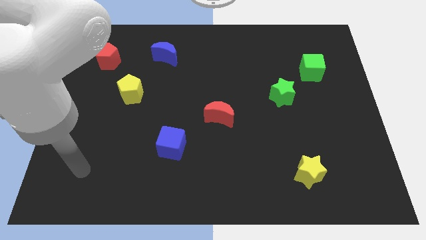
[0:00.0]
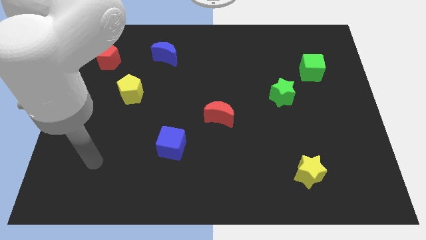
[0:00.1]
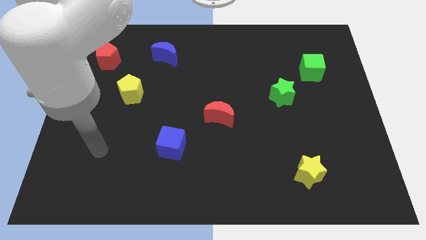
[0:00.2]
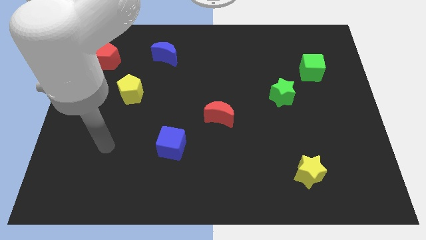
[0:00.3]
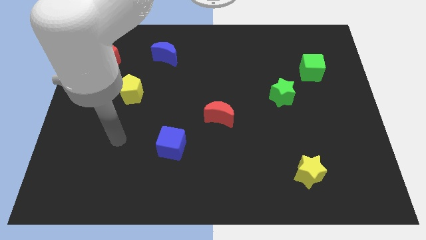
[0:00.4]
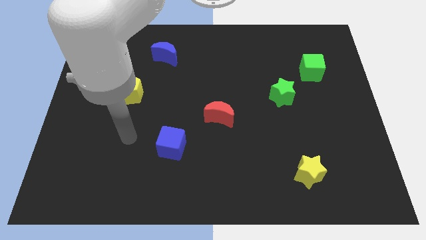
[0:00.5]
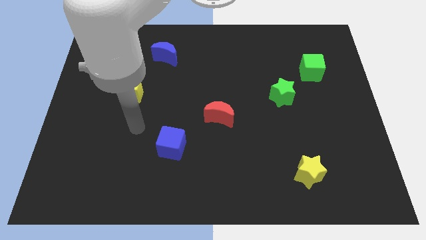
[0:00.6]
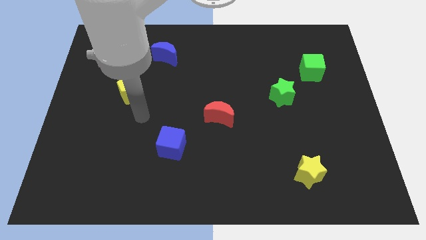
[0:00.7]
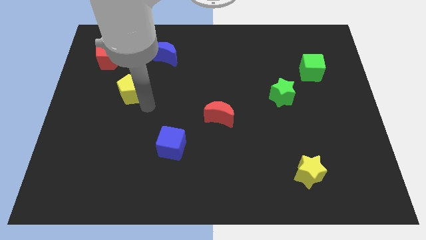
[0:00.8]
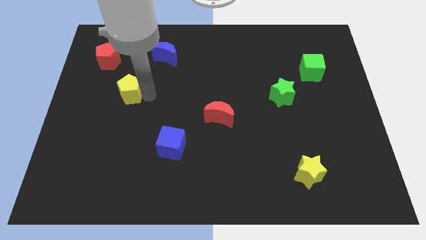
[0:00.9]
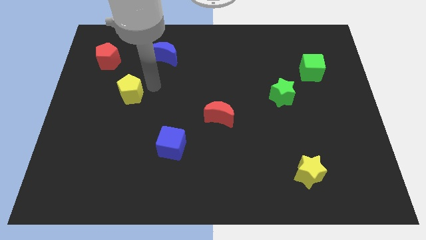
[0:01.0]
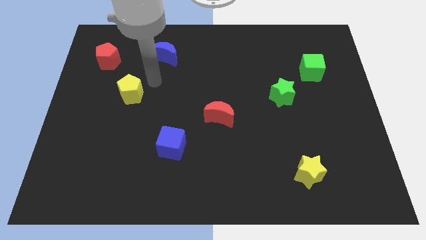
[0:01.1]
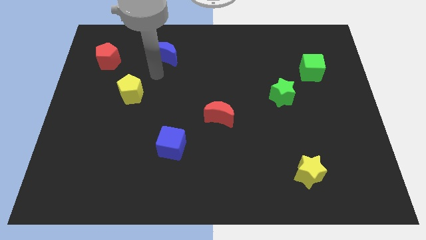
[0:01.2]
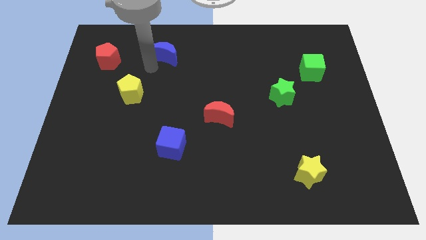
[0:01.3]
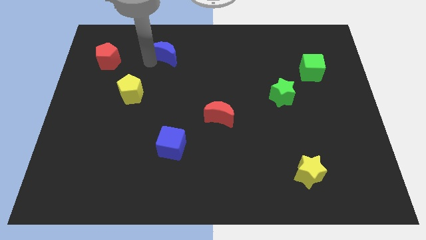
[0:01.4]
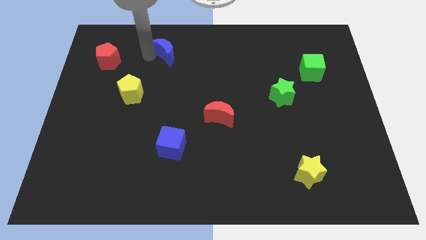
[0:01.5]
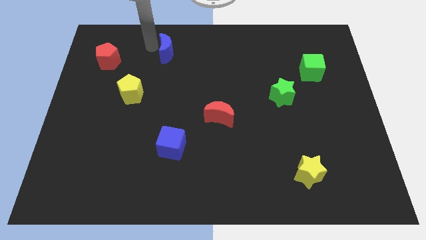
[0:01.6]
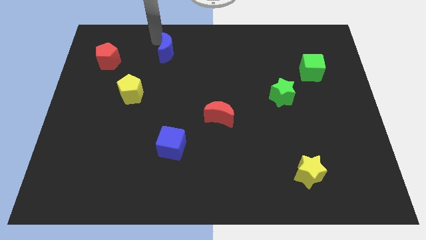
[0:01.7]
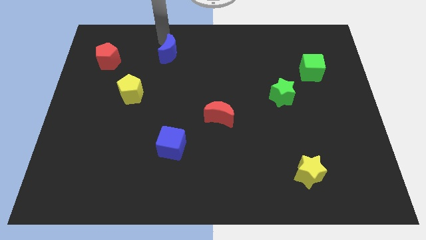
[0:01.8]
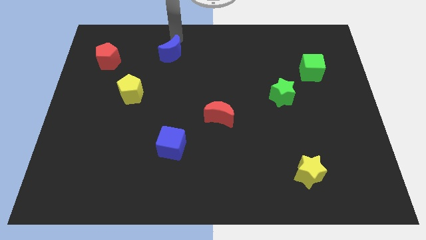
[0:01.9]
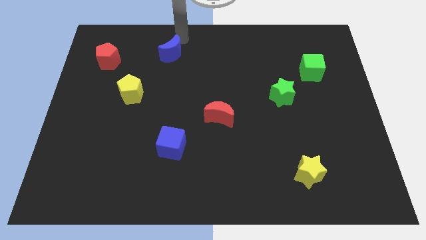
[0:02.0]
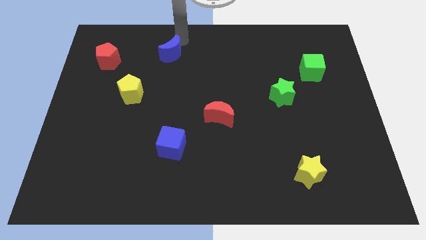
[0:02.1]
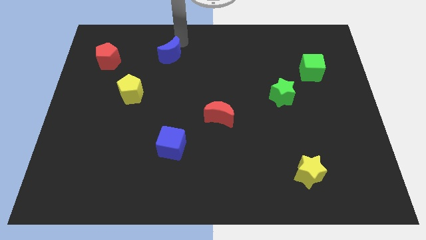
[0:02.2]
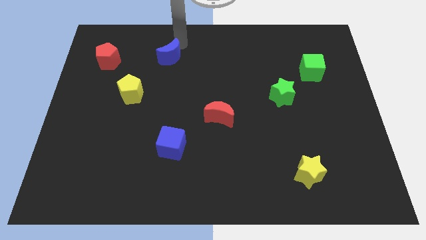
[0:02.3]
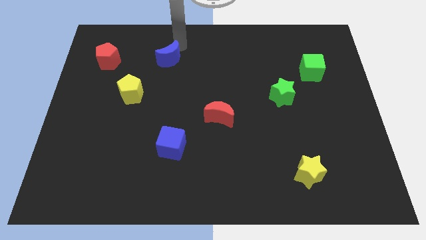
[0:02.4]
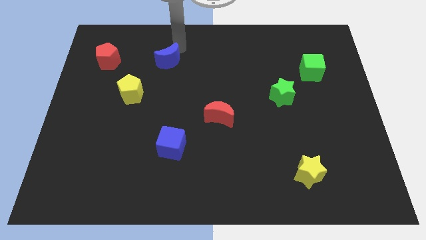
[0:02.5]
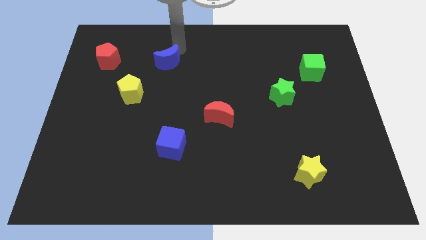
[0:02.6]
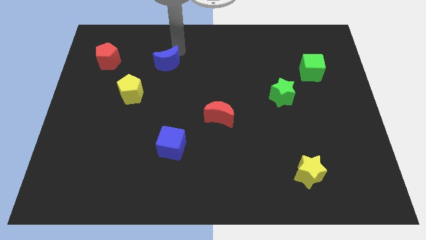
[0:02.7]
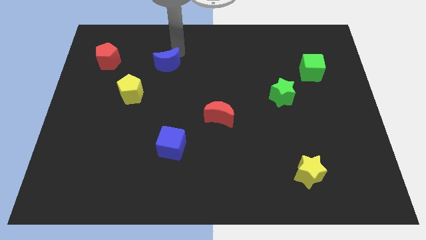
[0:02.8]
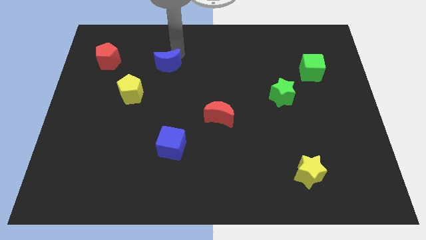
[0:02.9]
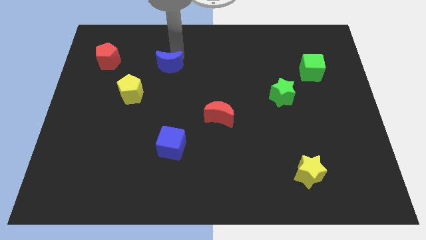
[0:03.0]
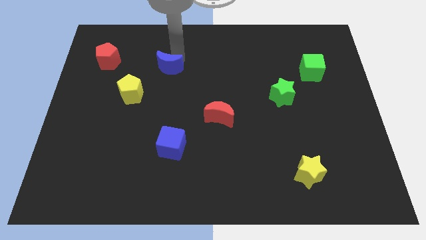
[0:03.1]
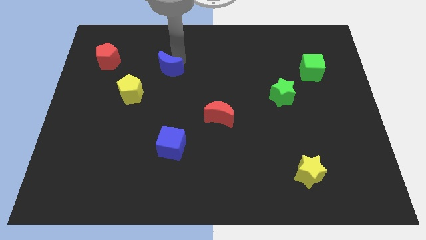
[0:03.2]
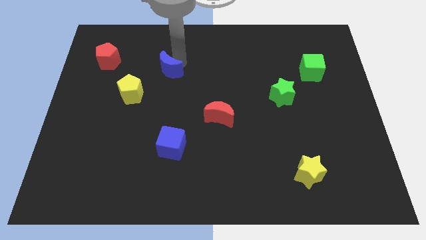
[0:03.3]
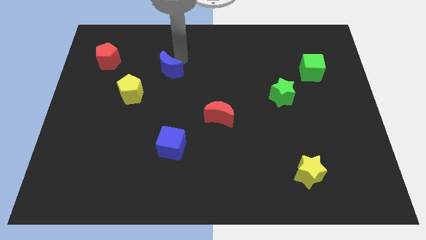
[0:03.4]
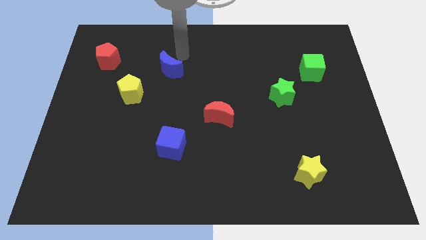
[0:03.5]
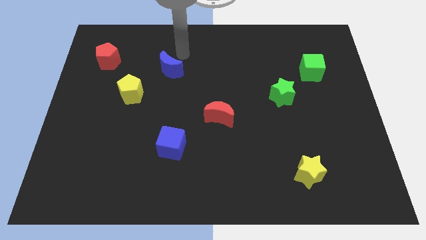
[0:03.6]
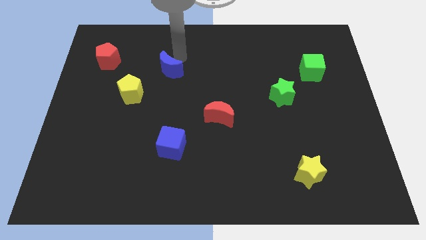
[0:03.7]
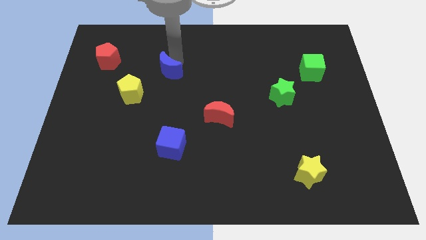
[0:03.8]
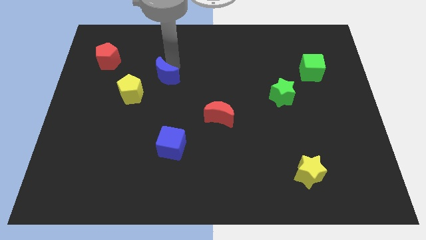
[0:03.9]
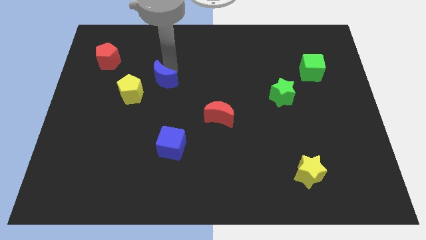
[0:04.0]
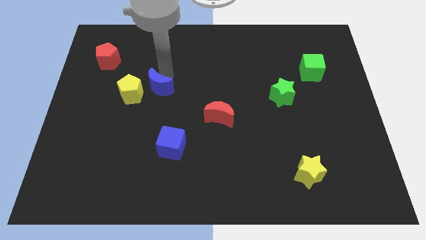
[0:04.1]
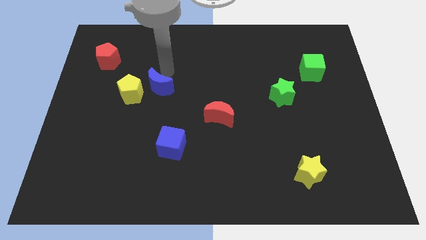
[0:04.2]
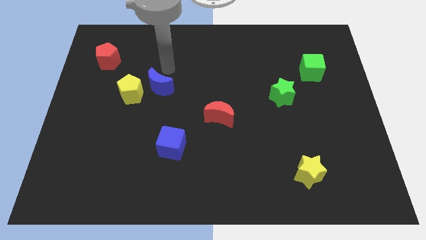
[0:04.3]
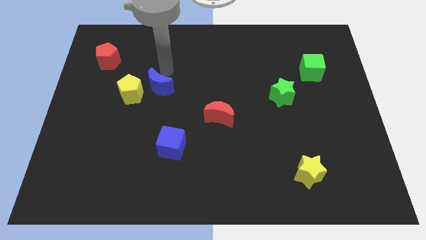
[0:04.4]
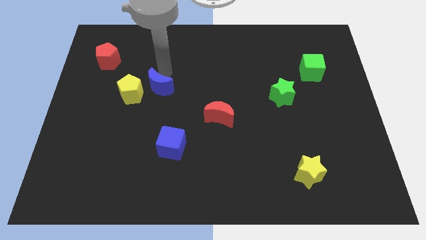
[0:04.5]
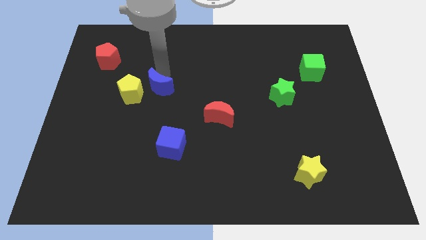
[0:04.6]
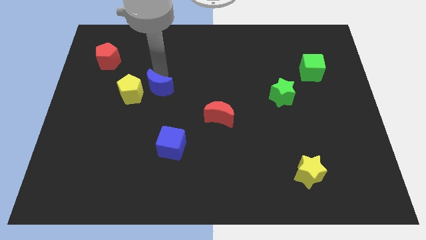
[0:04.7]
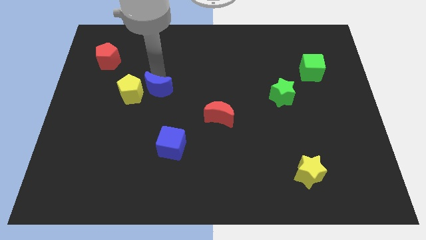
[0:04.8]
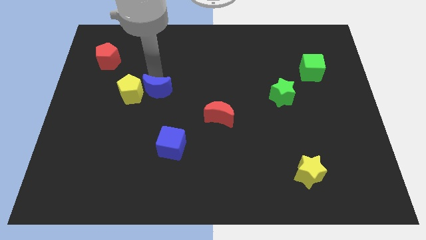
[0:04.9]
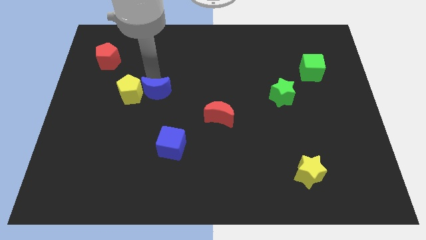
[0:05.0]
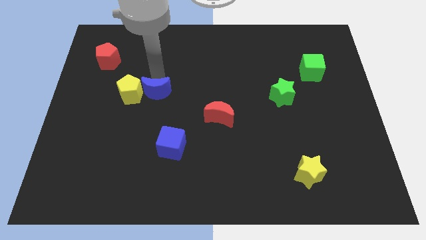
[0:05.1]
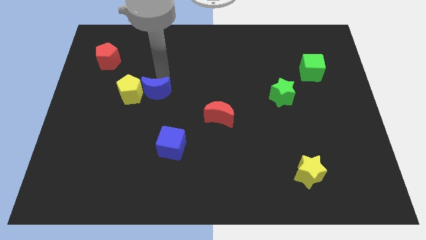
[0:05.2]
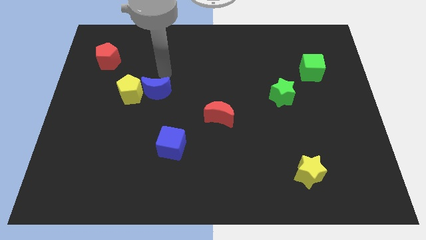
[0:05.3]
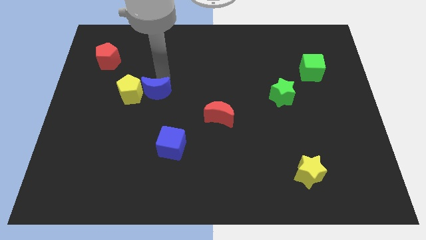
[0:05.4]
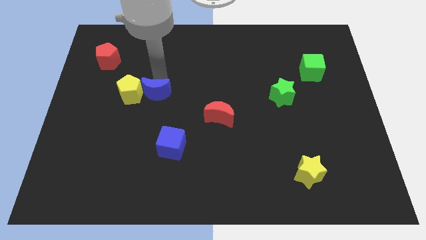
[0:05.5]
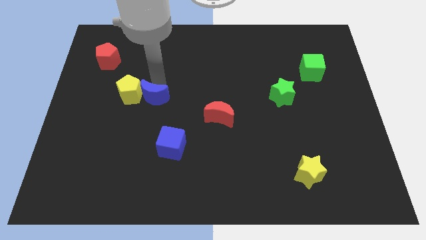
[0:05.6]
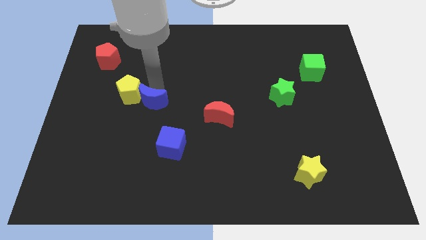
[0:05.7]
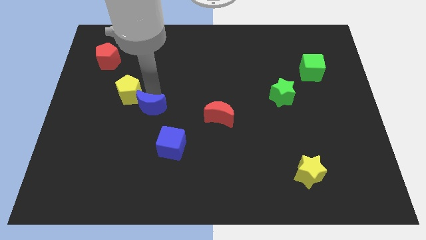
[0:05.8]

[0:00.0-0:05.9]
move the blue moon to the top left of the blue cube

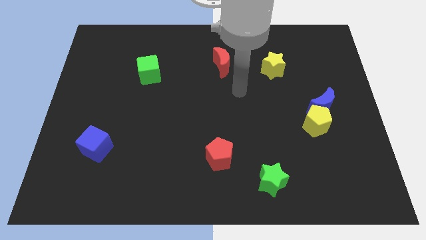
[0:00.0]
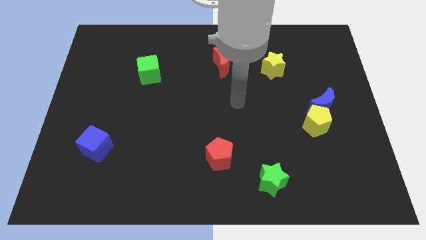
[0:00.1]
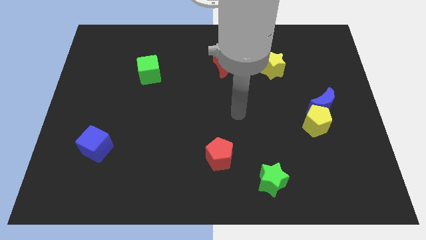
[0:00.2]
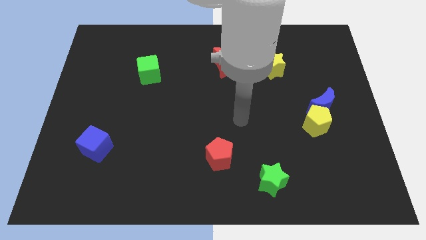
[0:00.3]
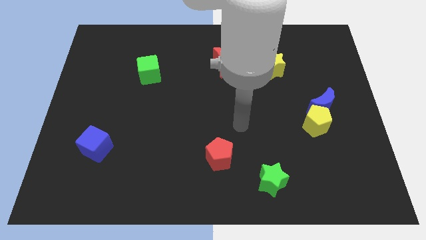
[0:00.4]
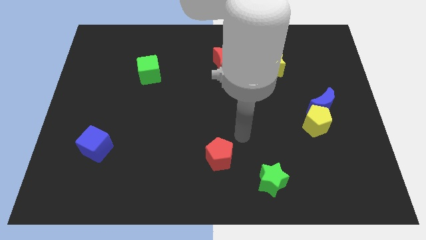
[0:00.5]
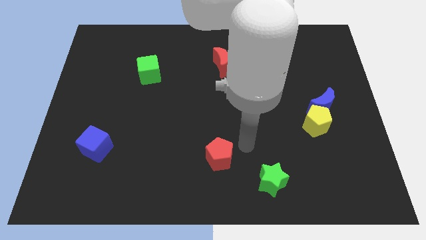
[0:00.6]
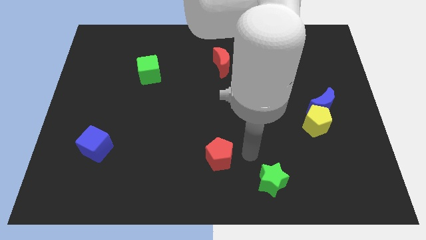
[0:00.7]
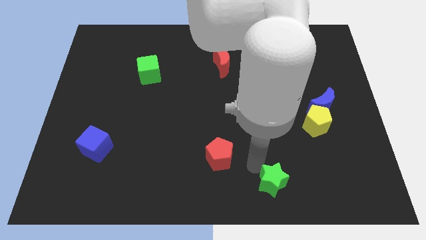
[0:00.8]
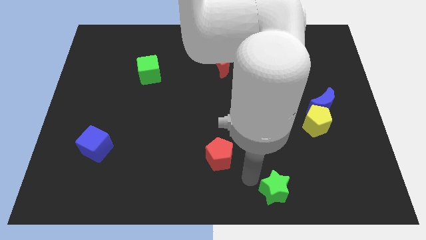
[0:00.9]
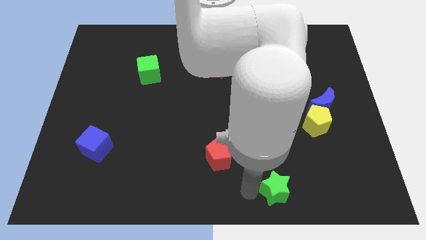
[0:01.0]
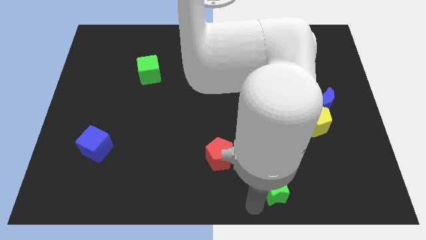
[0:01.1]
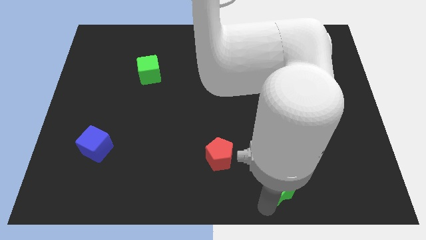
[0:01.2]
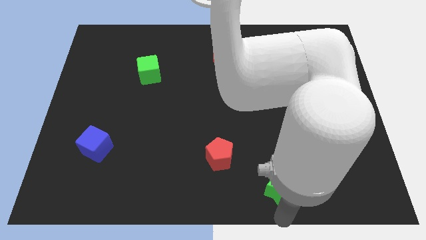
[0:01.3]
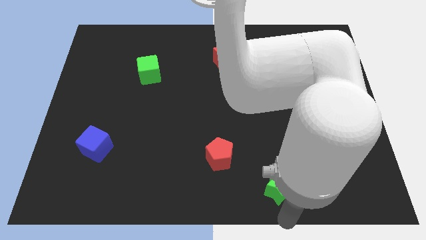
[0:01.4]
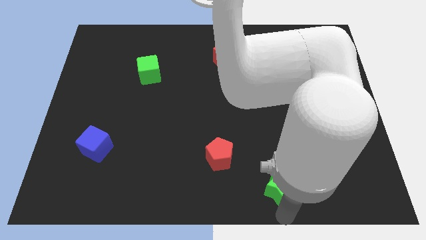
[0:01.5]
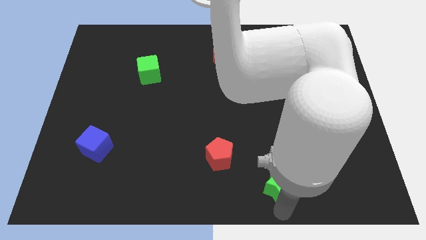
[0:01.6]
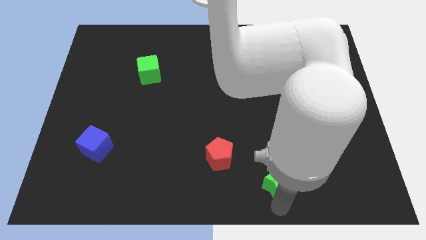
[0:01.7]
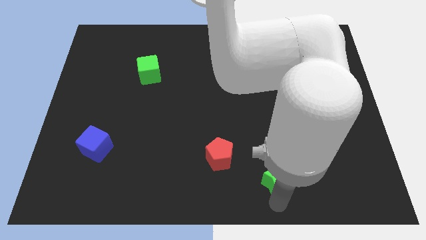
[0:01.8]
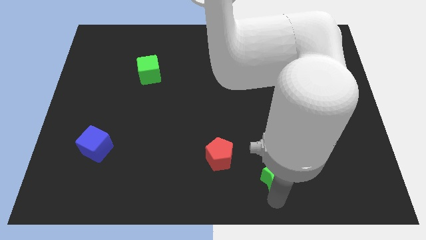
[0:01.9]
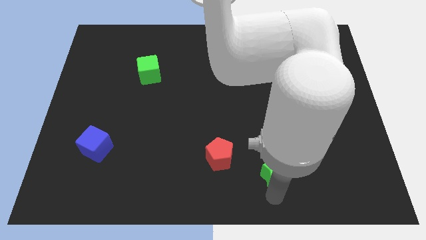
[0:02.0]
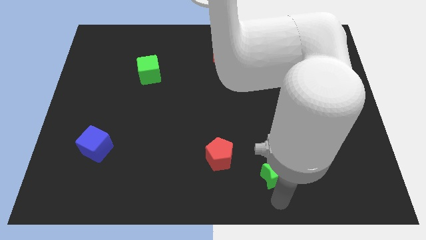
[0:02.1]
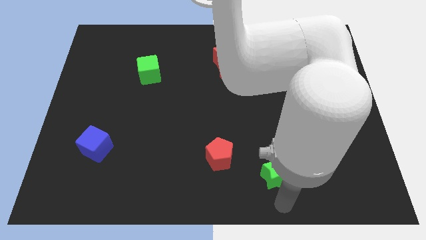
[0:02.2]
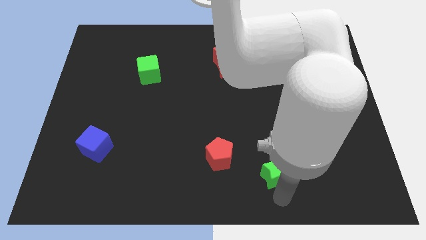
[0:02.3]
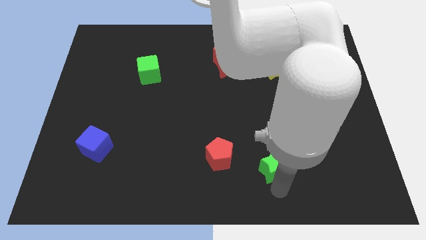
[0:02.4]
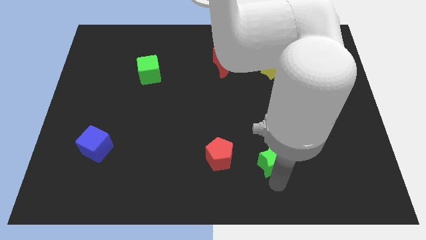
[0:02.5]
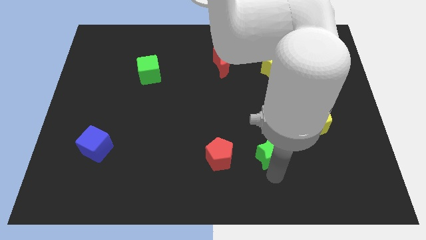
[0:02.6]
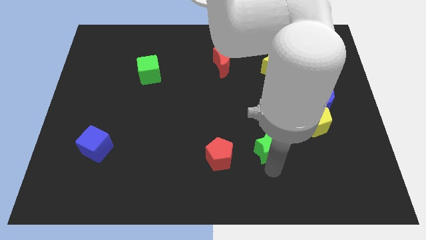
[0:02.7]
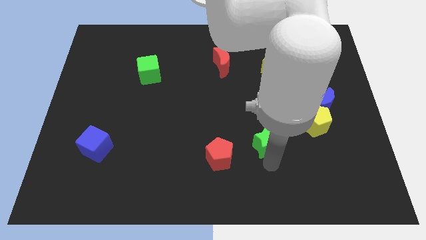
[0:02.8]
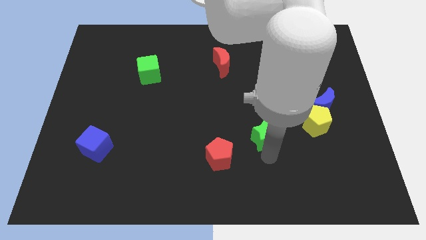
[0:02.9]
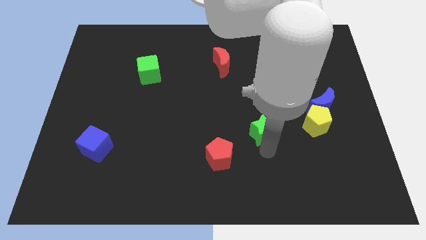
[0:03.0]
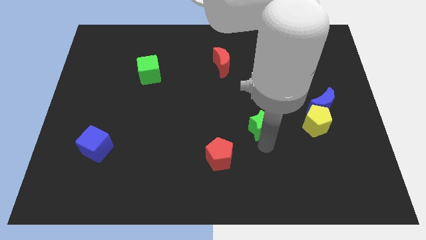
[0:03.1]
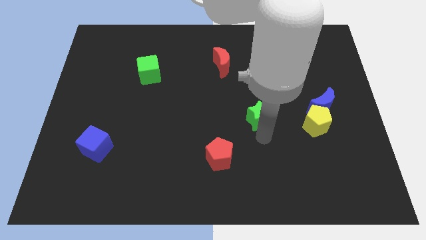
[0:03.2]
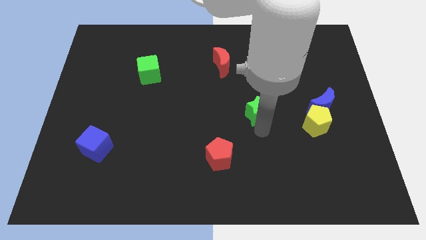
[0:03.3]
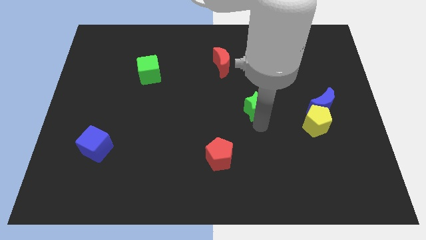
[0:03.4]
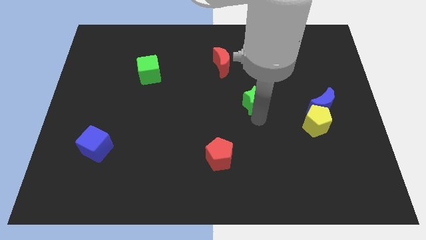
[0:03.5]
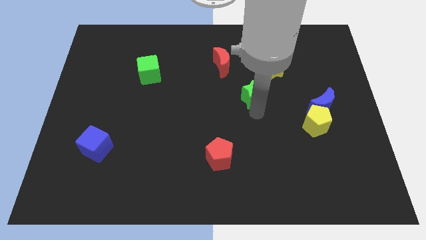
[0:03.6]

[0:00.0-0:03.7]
slide the green star to the bottom left side of the yellow star
